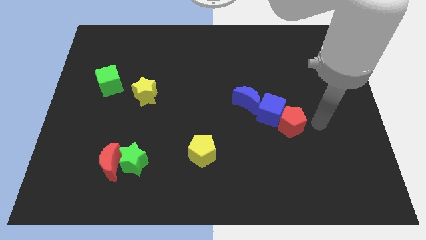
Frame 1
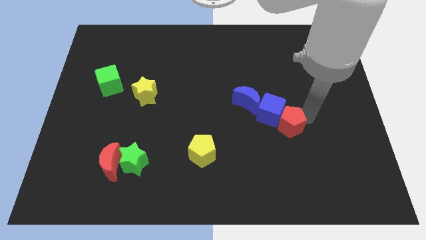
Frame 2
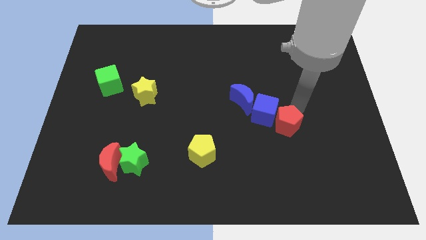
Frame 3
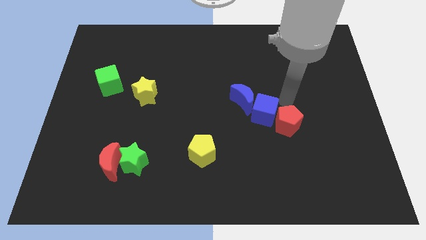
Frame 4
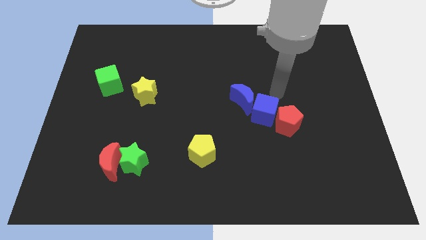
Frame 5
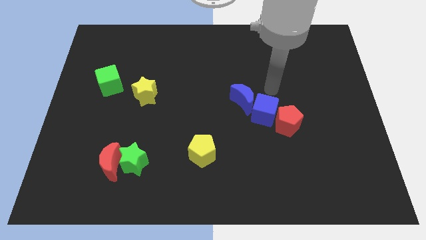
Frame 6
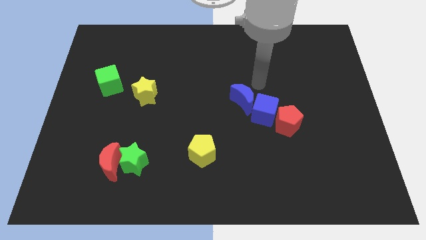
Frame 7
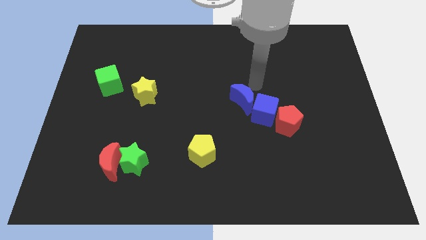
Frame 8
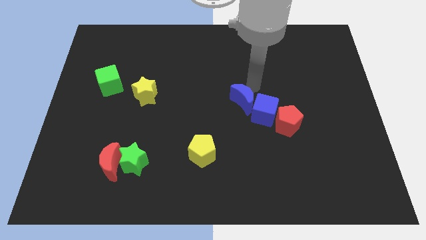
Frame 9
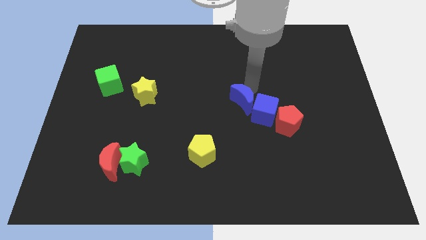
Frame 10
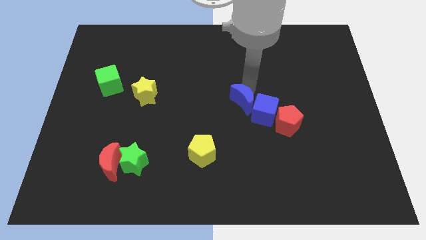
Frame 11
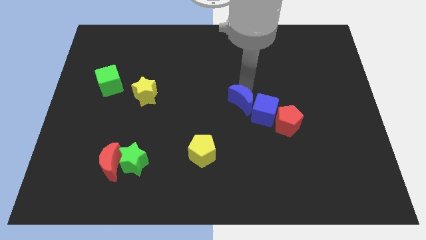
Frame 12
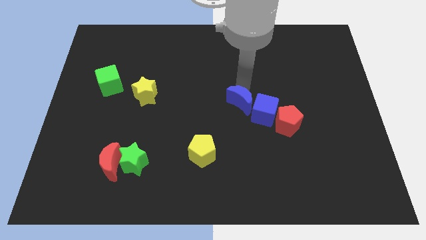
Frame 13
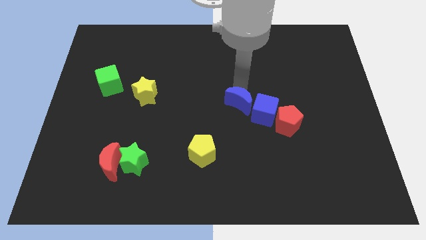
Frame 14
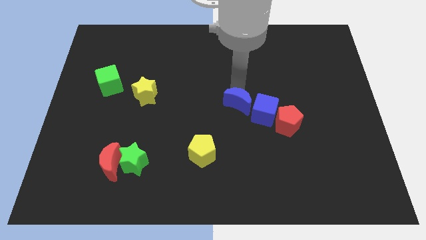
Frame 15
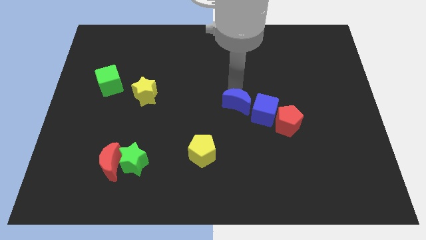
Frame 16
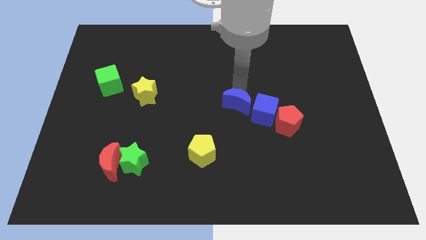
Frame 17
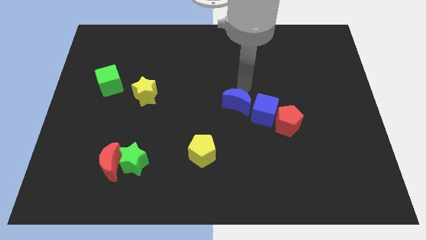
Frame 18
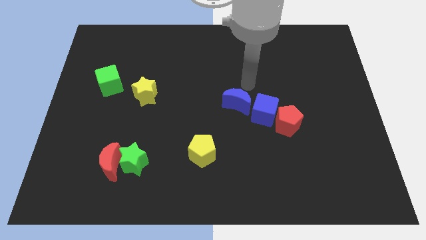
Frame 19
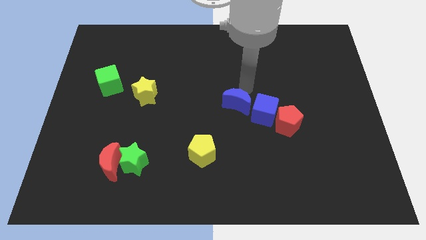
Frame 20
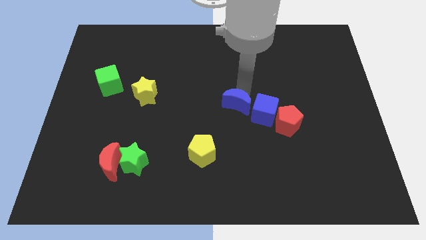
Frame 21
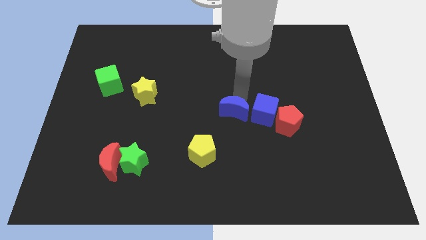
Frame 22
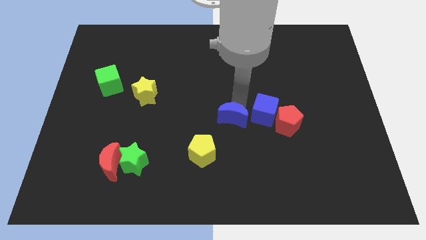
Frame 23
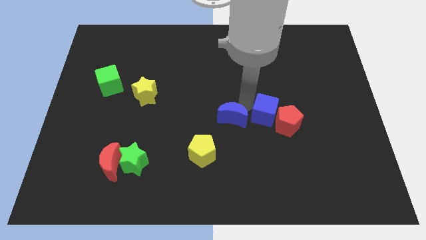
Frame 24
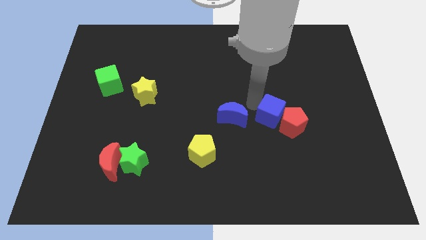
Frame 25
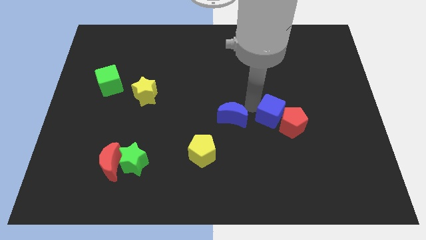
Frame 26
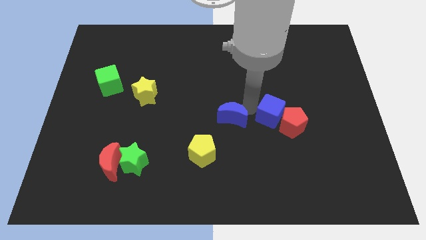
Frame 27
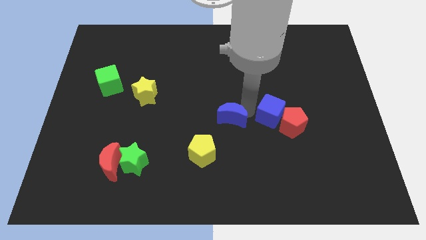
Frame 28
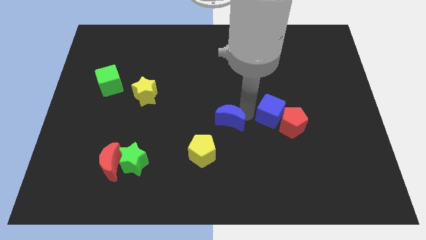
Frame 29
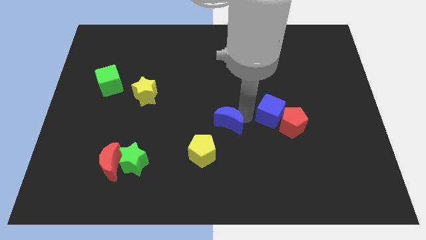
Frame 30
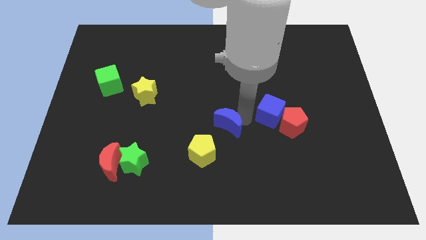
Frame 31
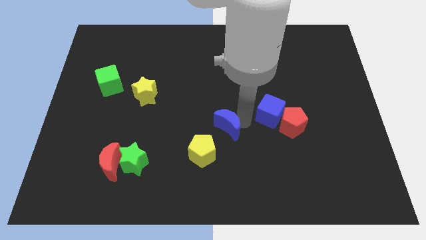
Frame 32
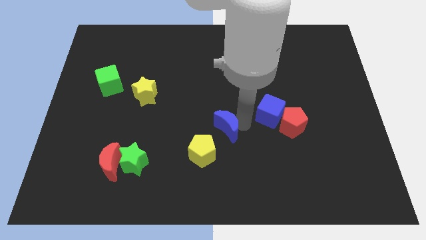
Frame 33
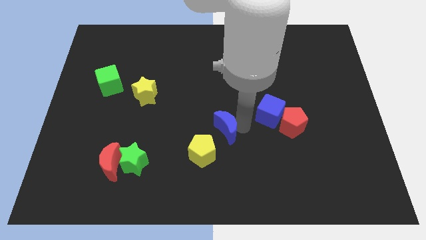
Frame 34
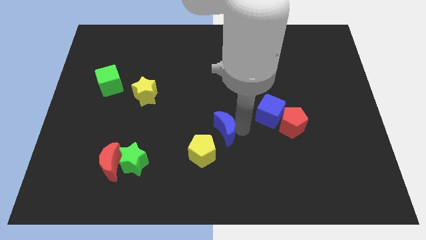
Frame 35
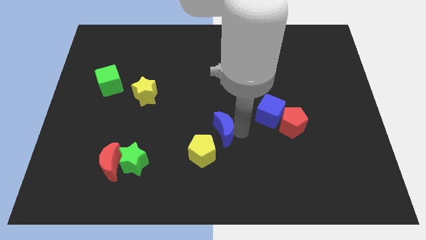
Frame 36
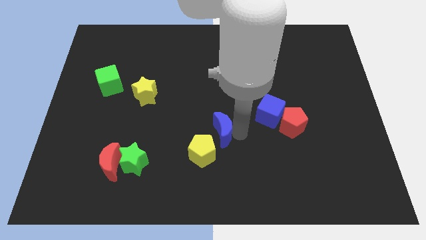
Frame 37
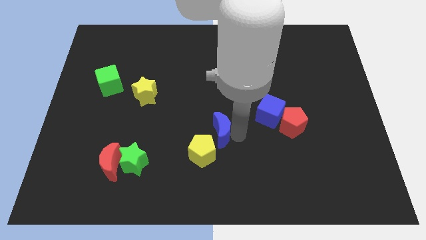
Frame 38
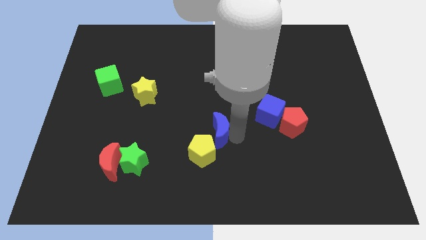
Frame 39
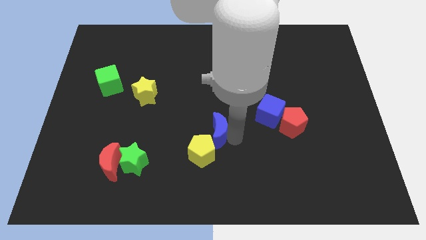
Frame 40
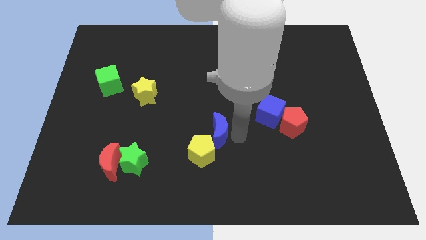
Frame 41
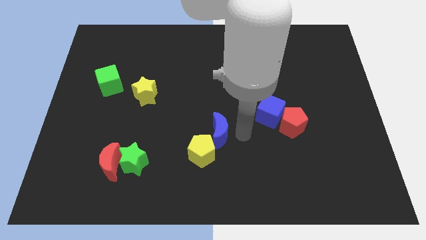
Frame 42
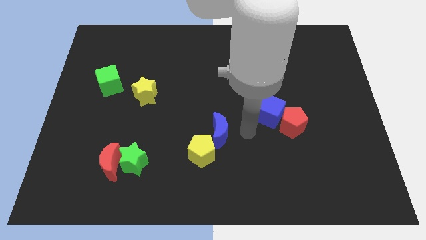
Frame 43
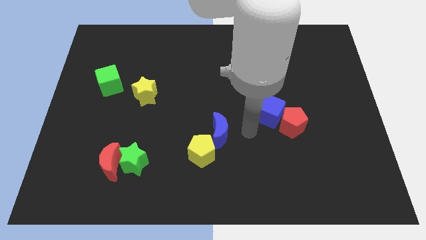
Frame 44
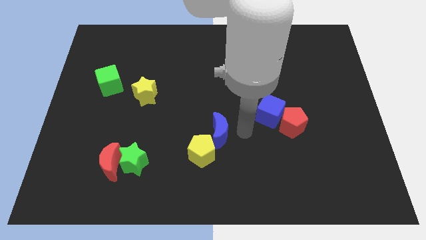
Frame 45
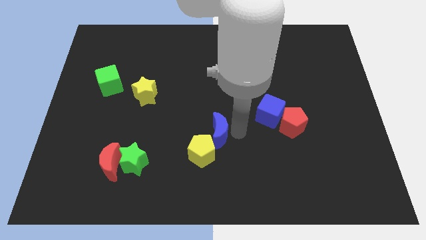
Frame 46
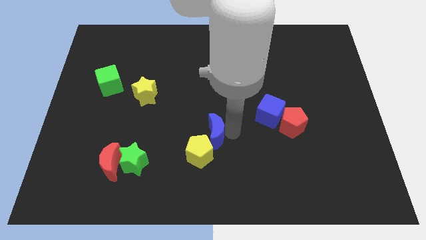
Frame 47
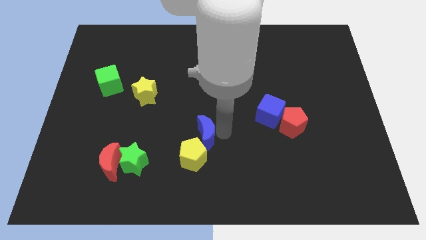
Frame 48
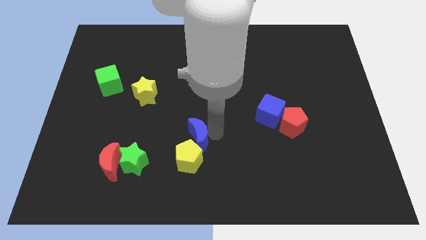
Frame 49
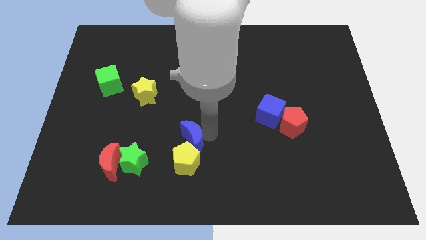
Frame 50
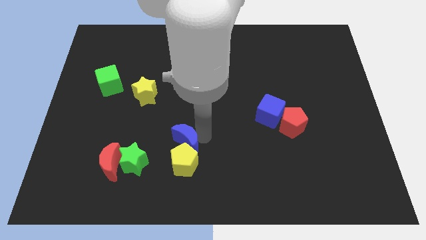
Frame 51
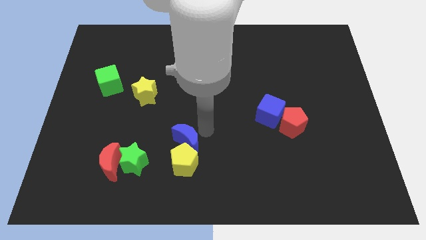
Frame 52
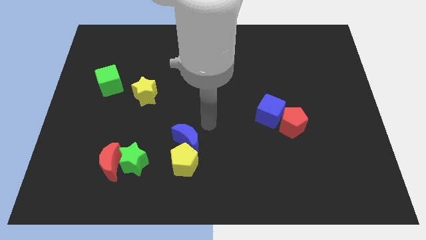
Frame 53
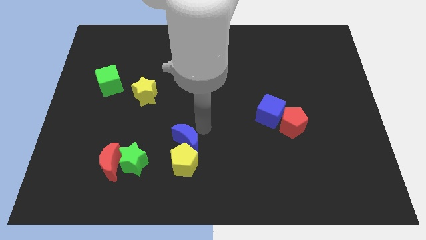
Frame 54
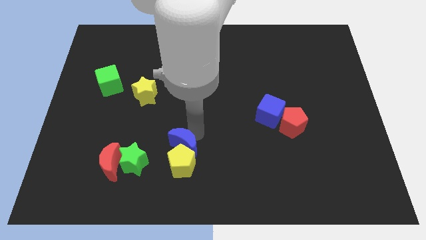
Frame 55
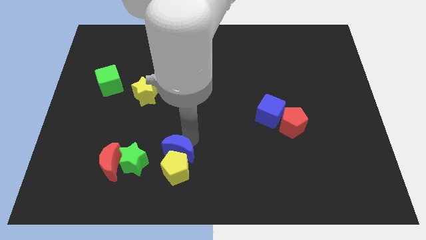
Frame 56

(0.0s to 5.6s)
push the blue moon to the right of the red moon

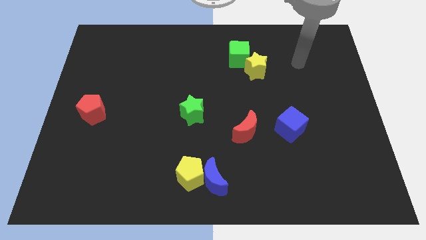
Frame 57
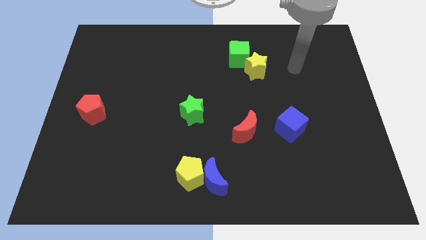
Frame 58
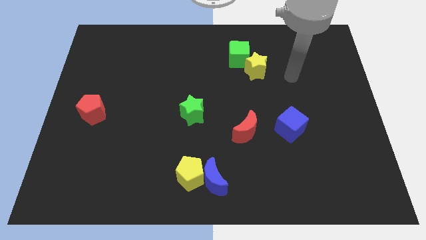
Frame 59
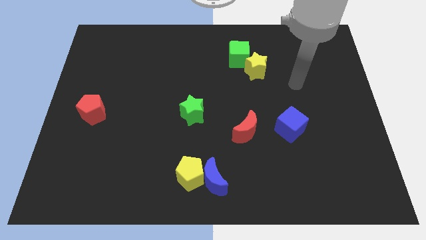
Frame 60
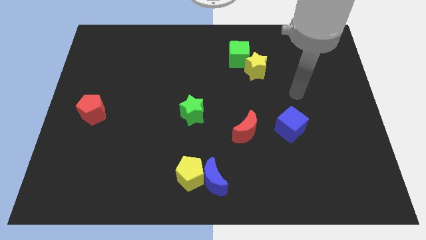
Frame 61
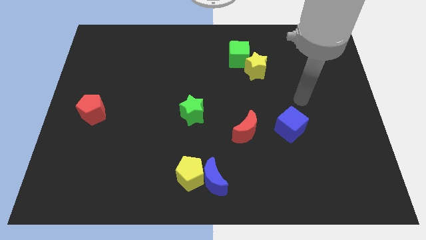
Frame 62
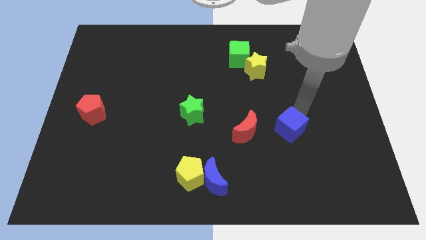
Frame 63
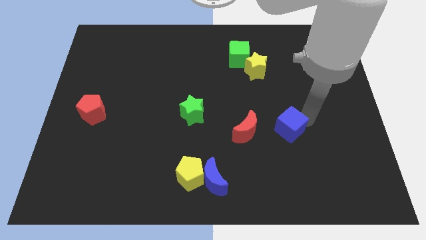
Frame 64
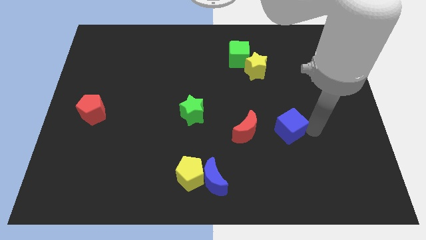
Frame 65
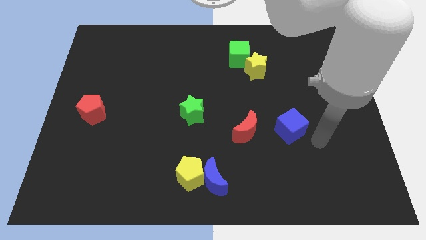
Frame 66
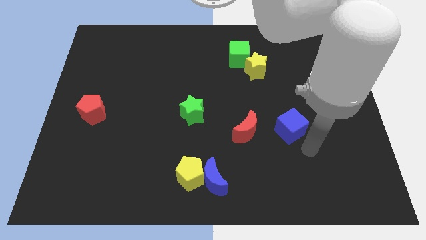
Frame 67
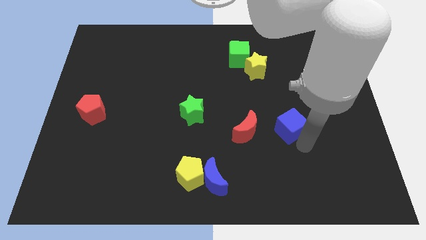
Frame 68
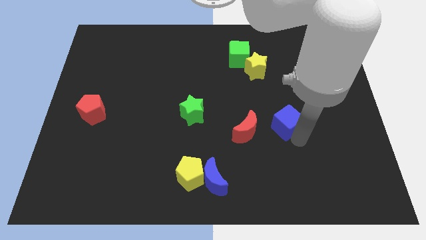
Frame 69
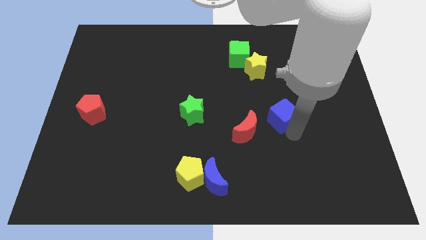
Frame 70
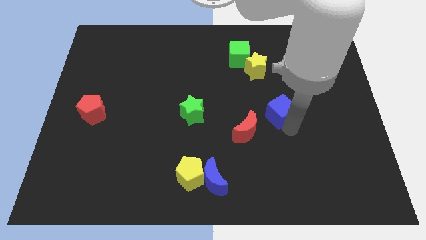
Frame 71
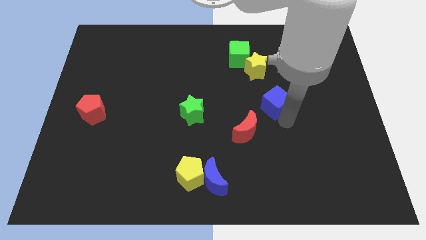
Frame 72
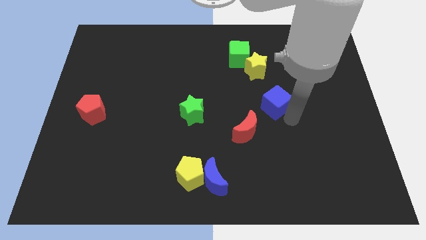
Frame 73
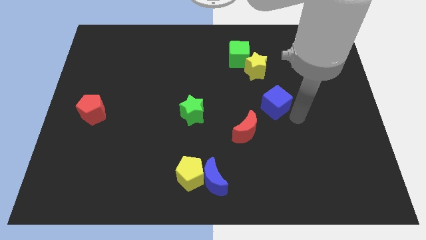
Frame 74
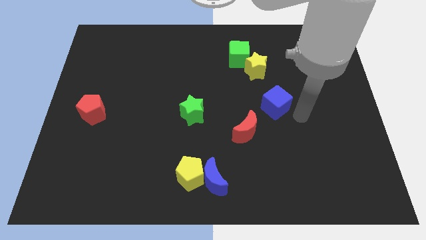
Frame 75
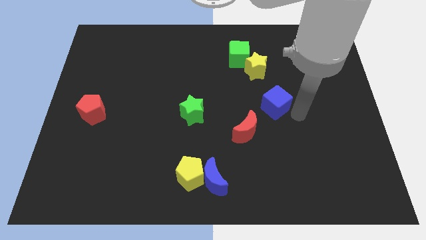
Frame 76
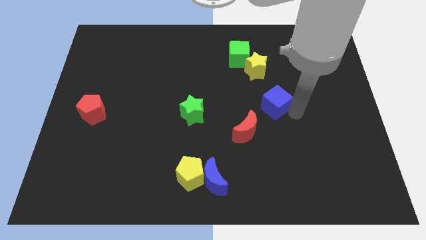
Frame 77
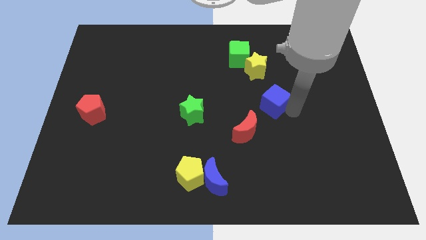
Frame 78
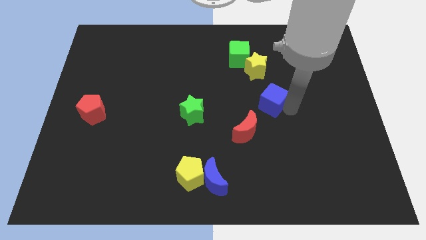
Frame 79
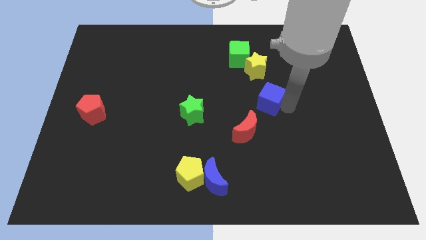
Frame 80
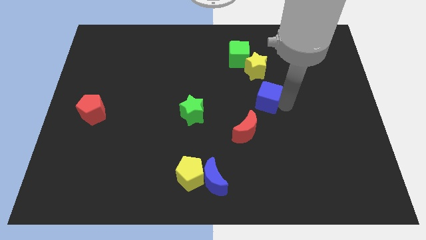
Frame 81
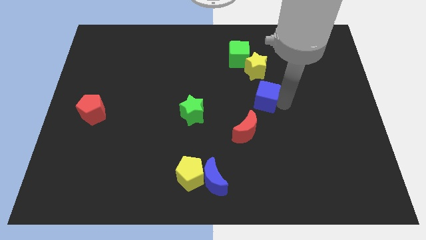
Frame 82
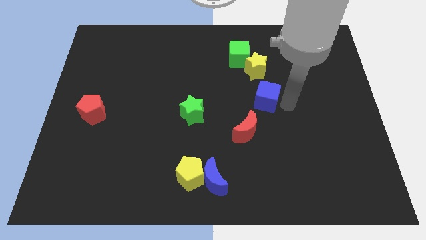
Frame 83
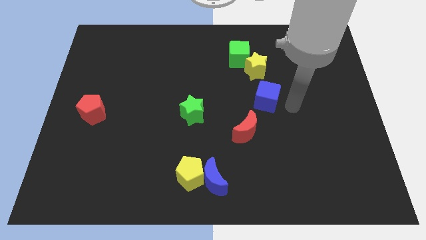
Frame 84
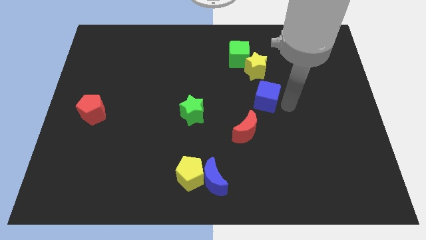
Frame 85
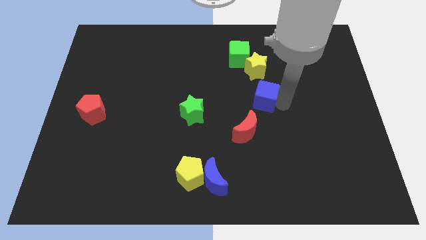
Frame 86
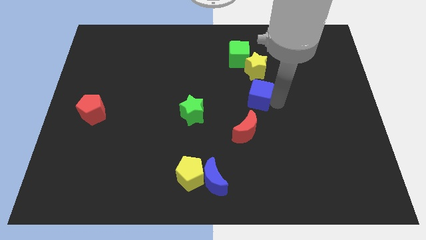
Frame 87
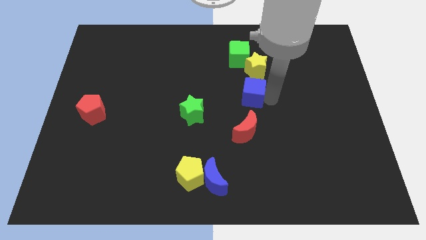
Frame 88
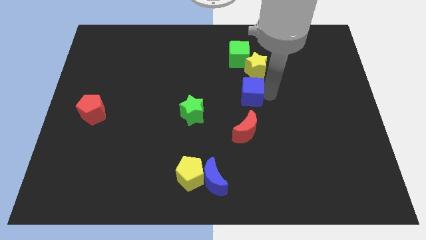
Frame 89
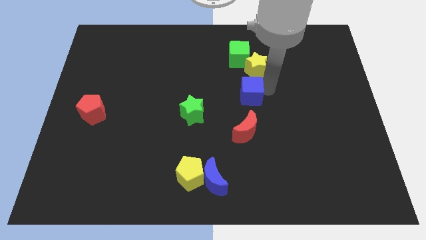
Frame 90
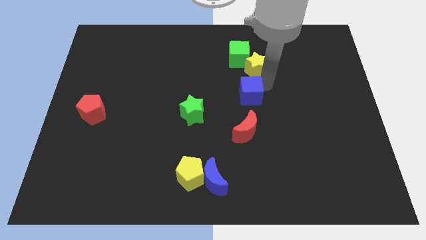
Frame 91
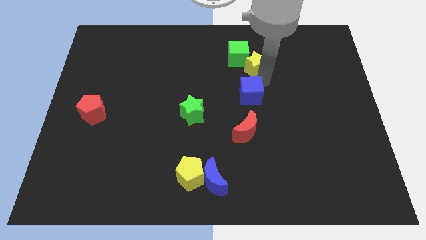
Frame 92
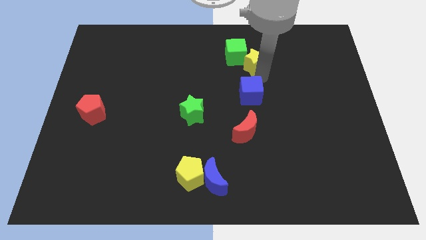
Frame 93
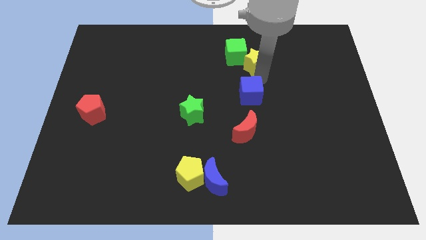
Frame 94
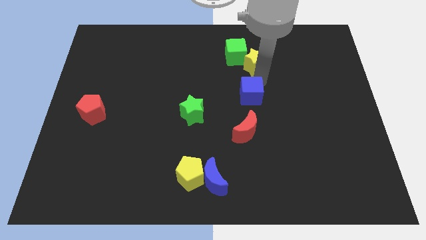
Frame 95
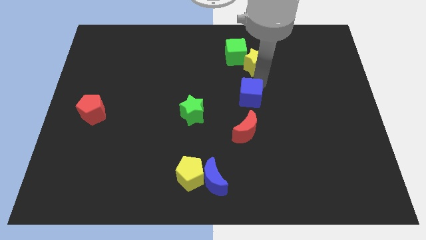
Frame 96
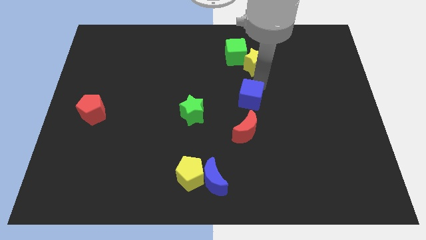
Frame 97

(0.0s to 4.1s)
move the blue cube to the right side of the green star
